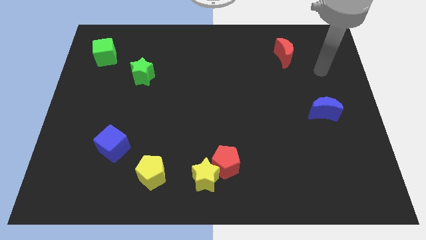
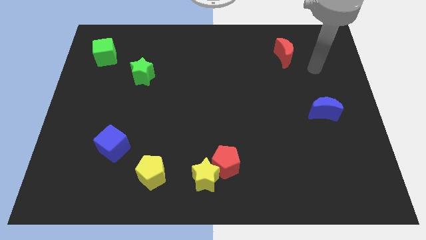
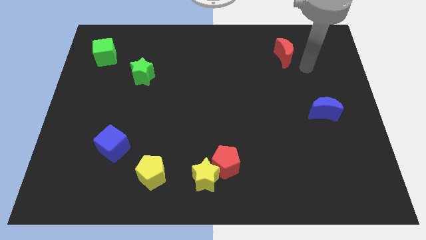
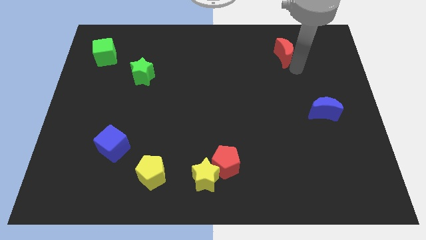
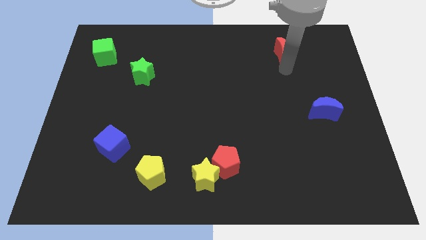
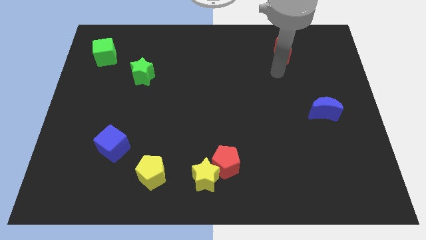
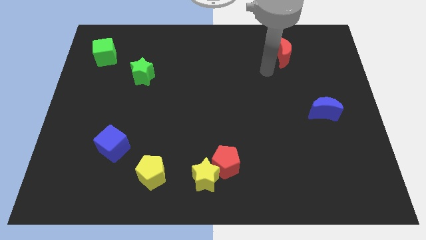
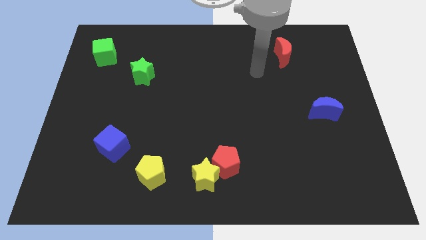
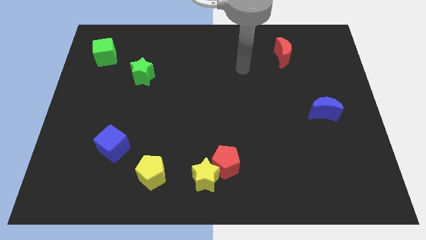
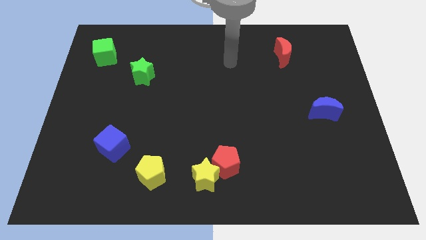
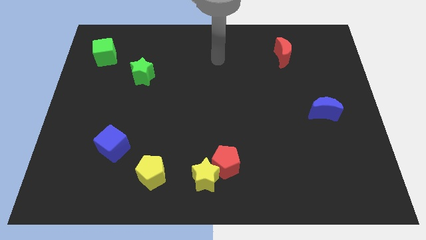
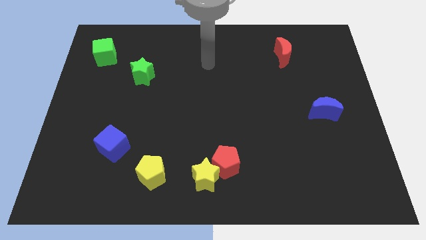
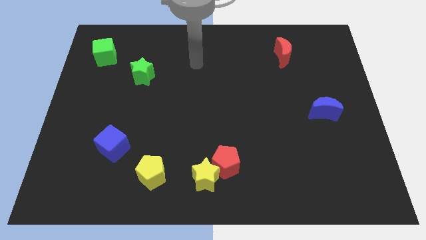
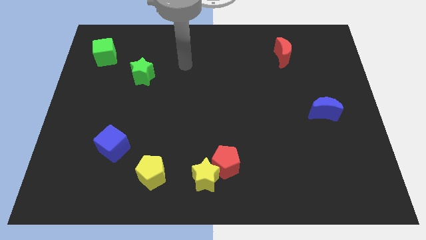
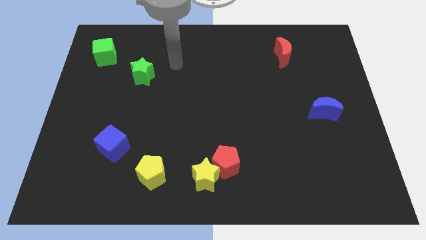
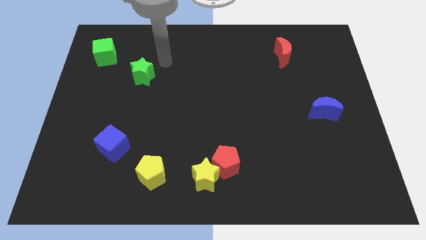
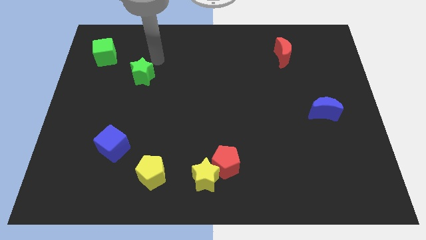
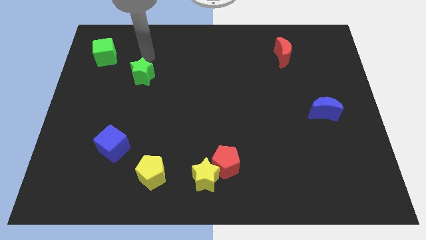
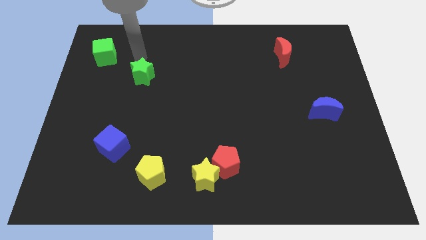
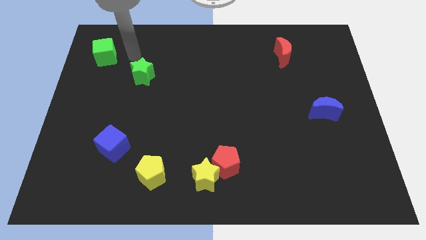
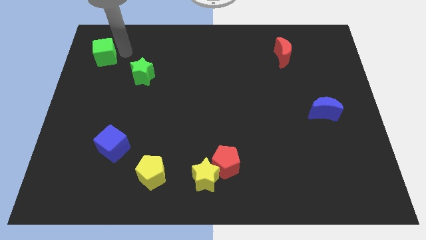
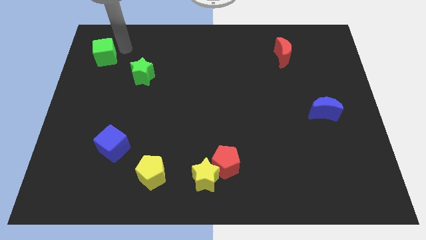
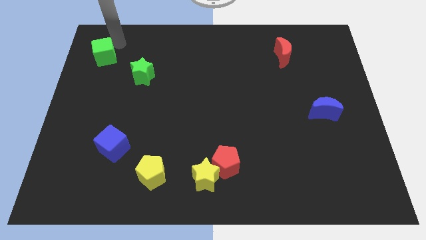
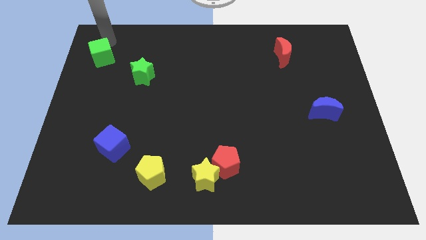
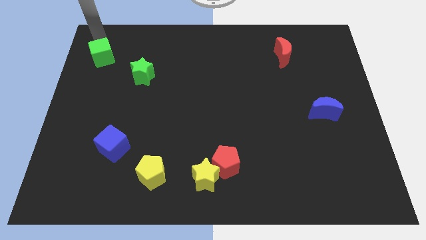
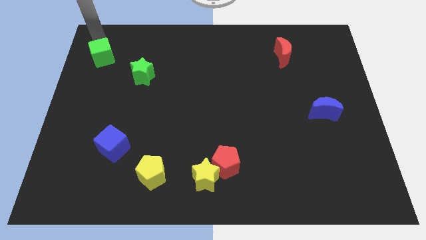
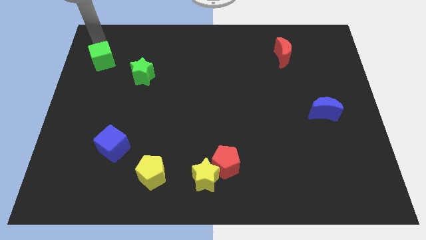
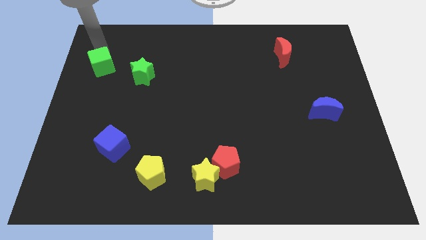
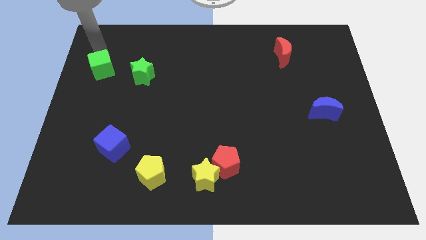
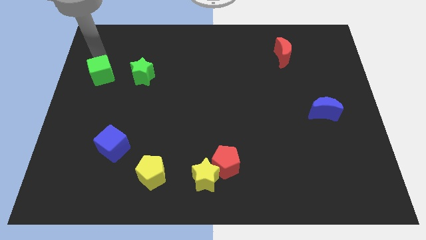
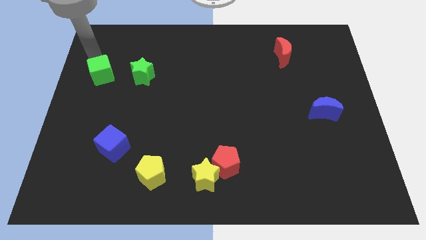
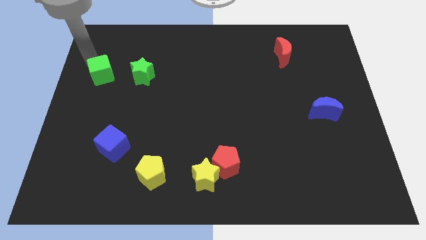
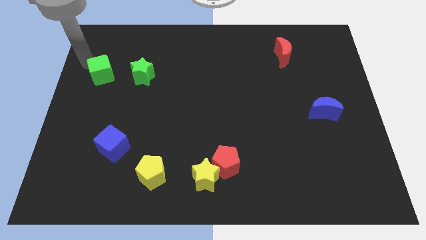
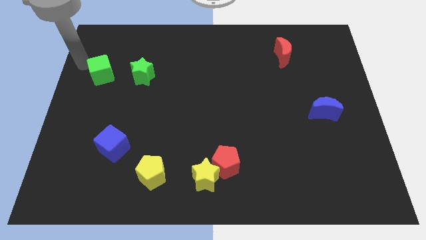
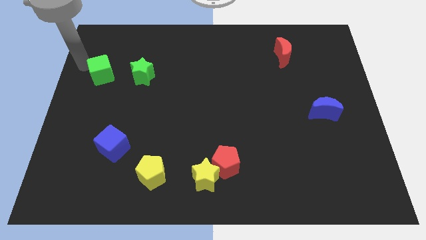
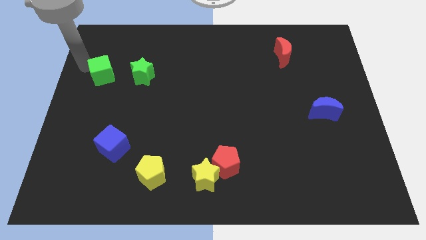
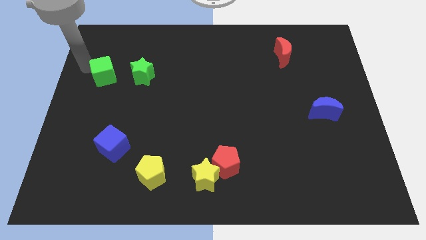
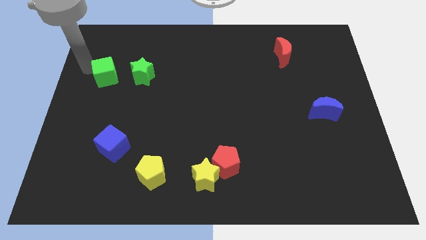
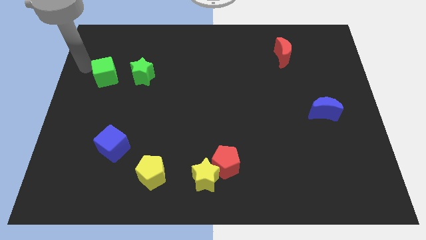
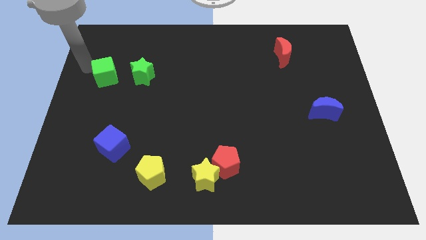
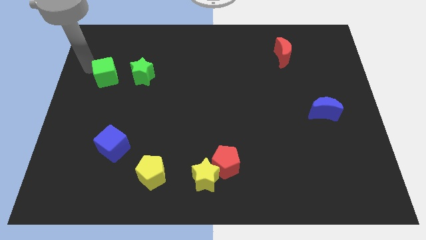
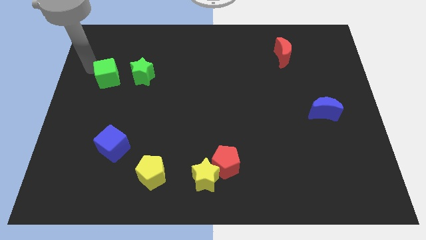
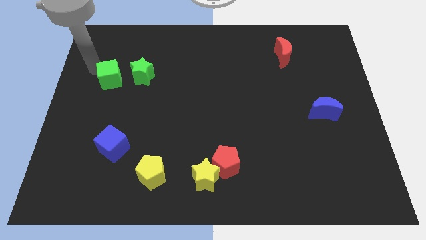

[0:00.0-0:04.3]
slide the green cube a little bit down and then to the right

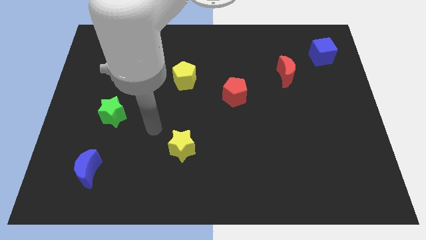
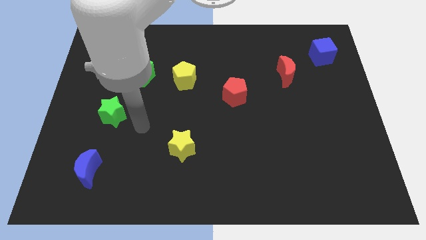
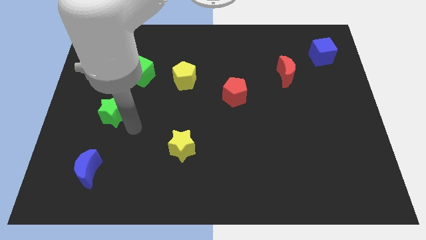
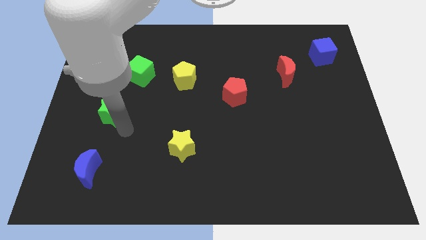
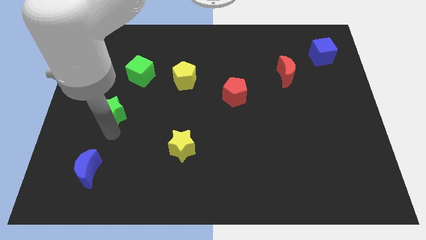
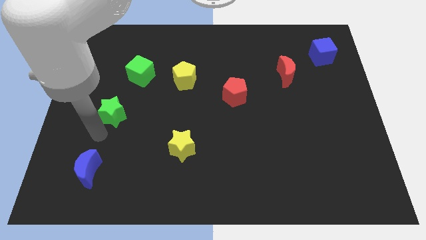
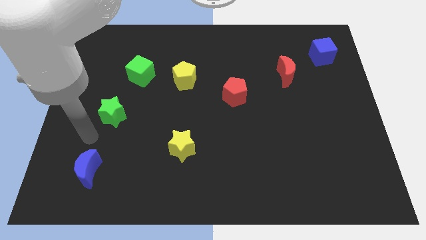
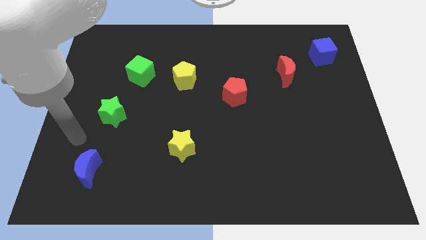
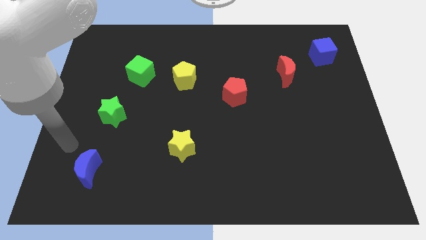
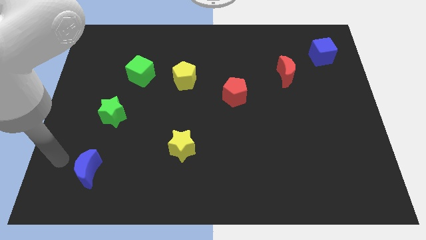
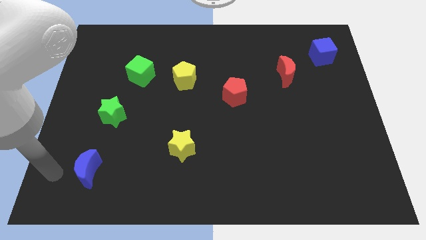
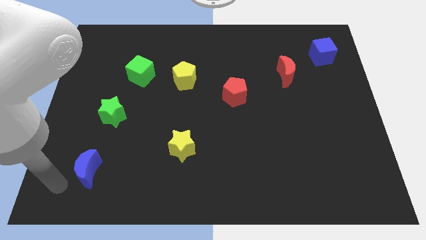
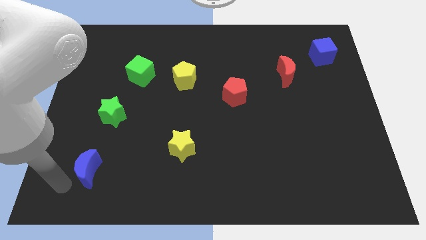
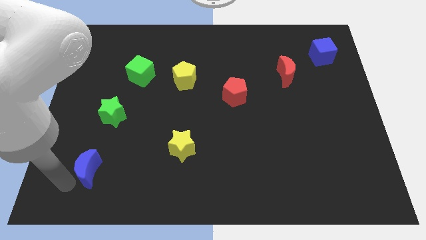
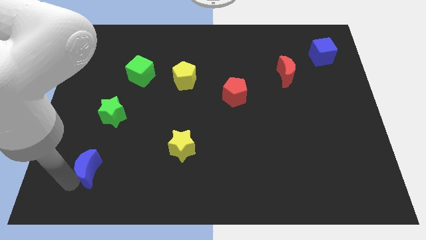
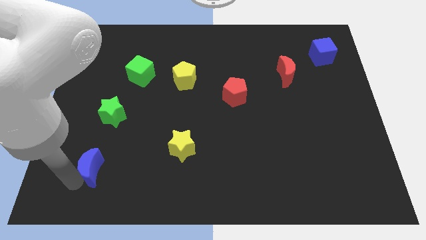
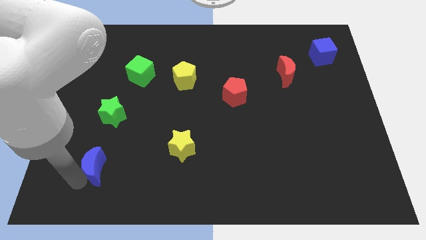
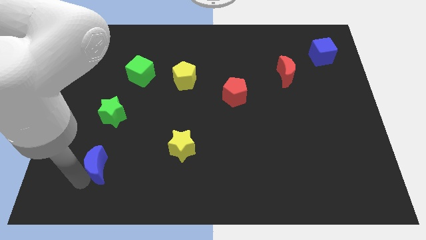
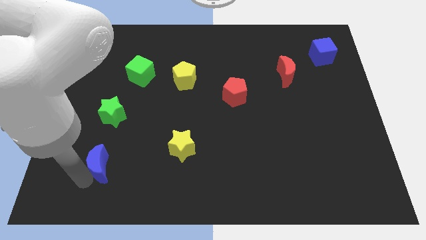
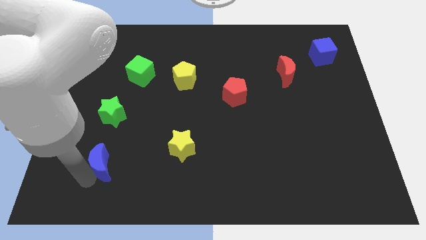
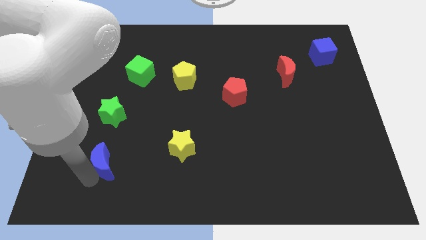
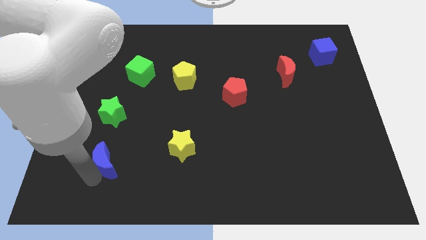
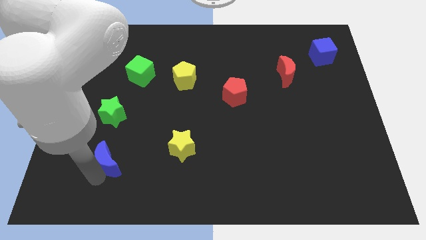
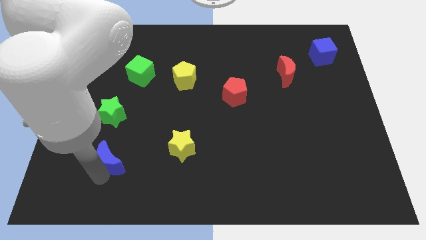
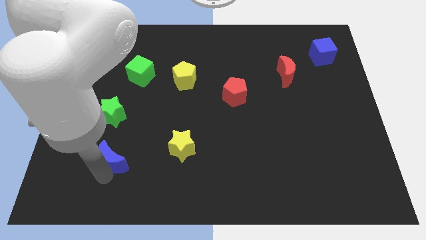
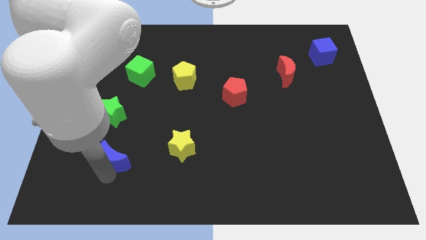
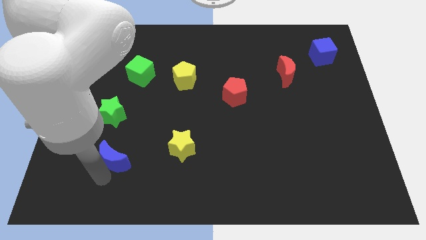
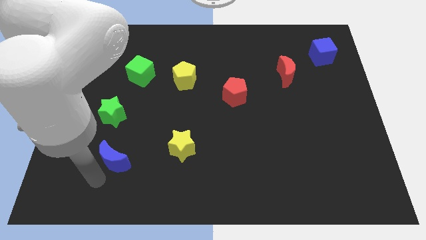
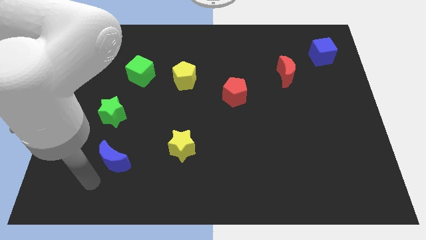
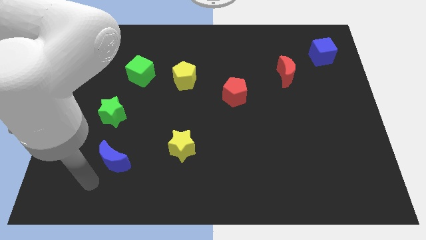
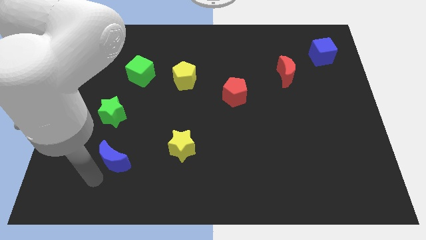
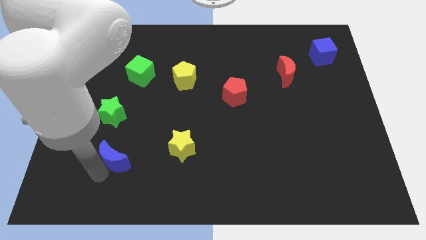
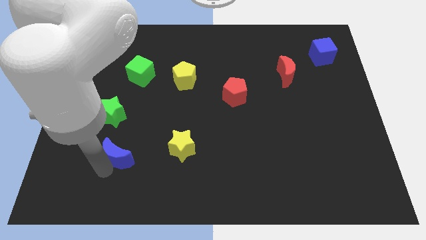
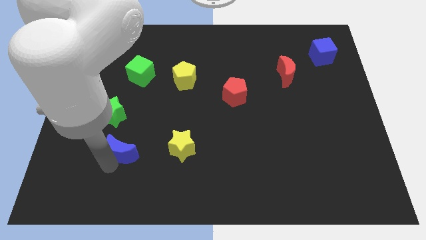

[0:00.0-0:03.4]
push the blue moon a bit diagonally up and right

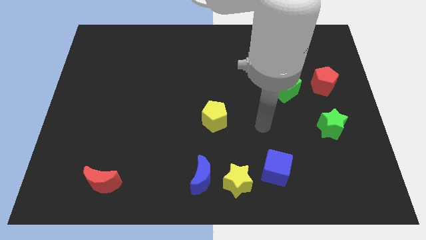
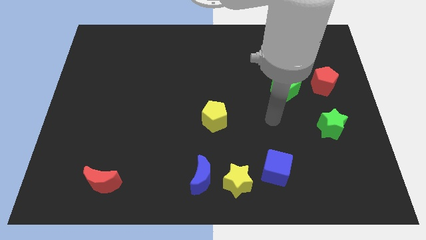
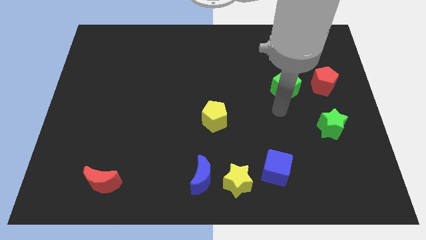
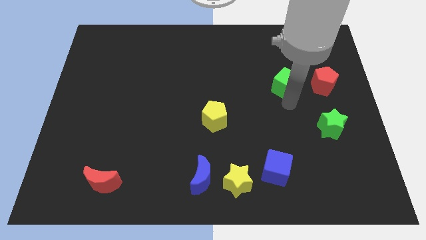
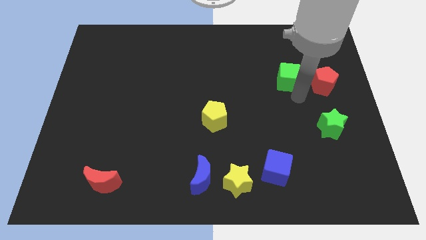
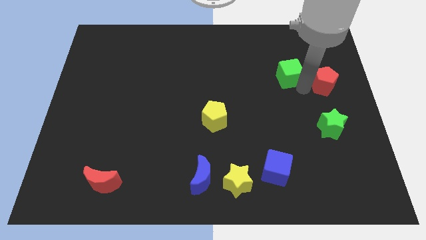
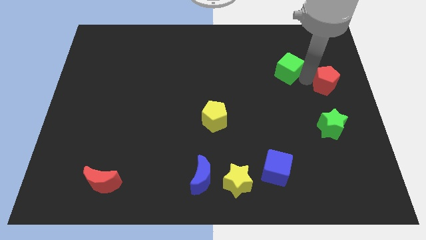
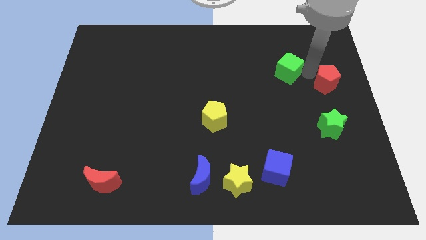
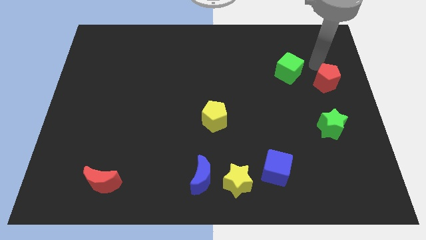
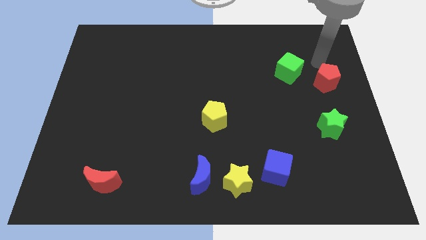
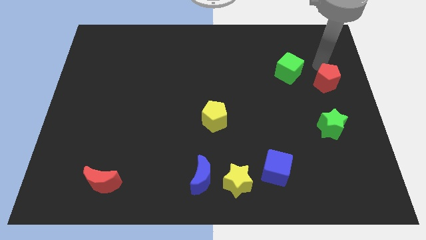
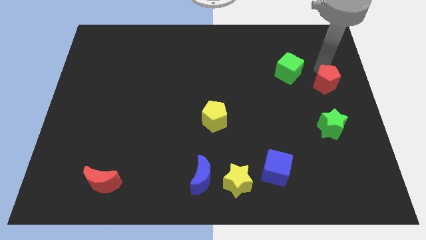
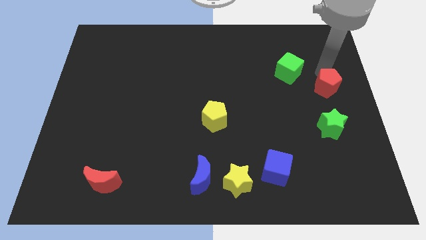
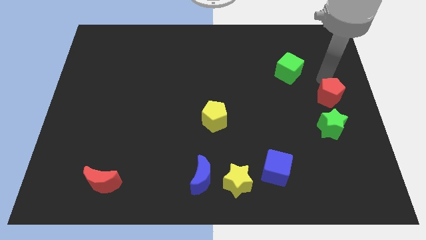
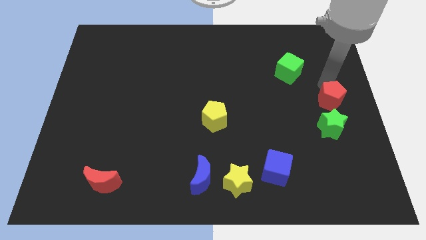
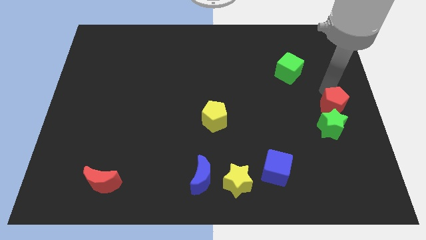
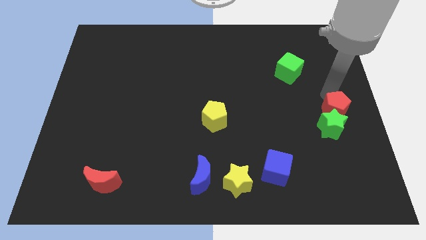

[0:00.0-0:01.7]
move the red pentagon a little down
